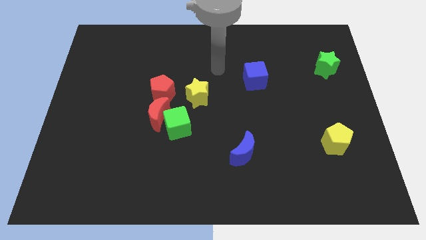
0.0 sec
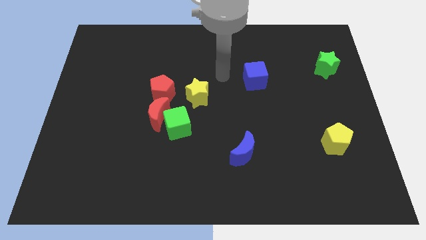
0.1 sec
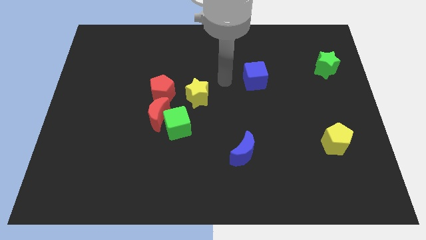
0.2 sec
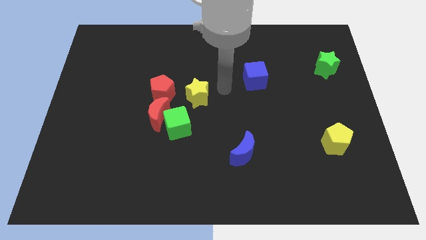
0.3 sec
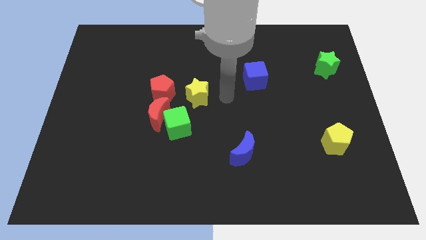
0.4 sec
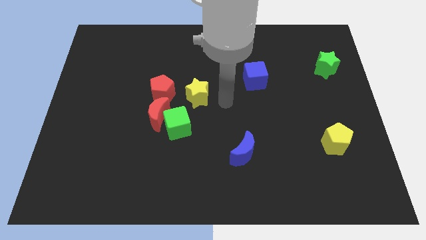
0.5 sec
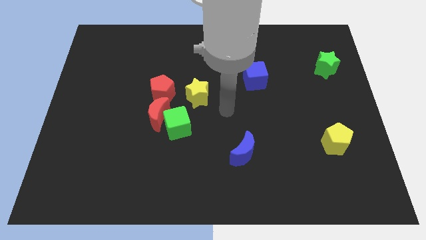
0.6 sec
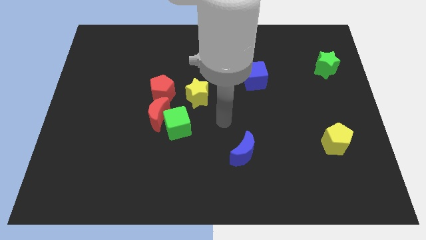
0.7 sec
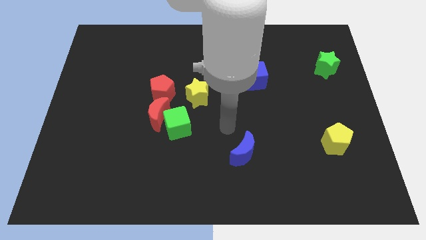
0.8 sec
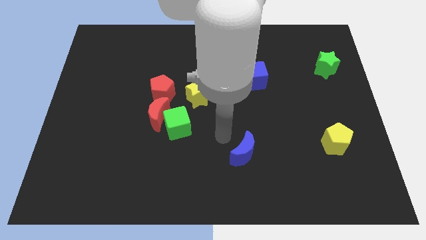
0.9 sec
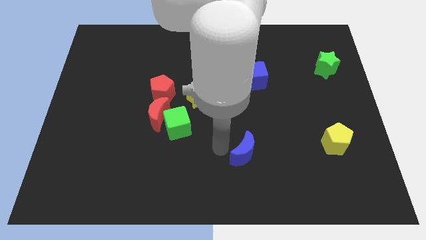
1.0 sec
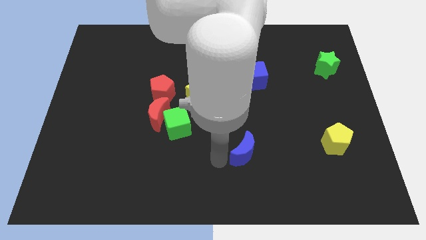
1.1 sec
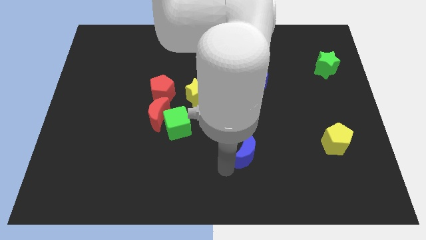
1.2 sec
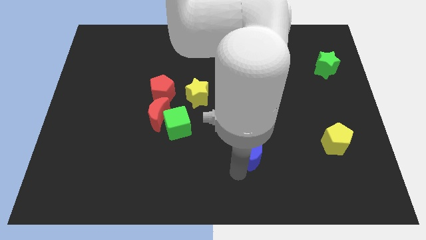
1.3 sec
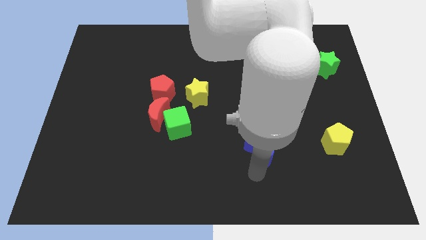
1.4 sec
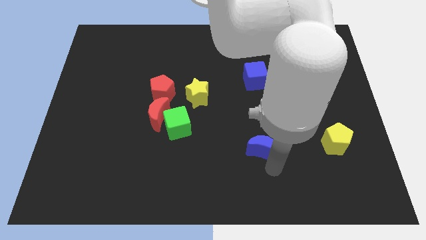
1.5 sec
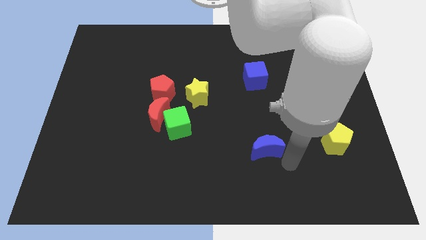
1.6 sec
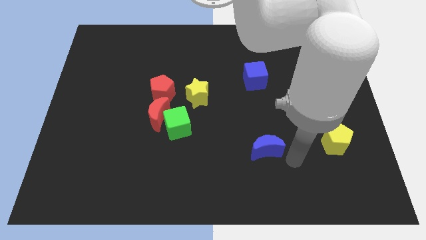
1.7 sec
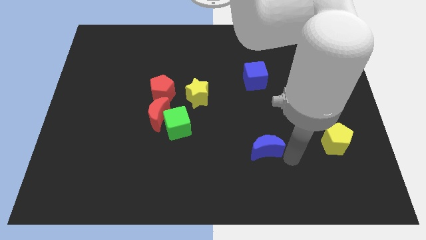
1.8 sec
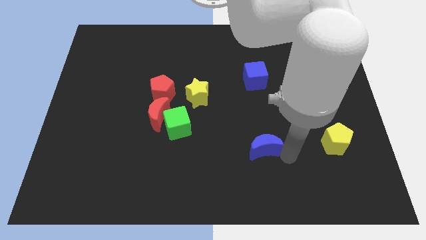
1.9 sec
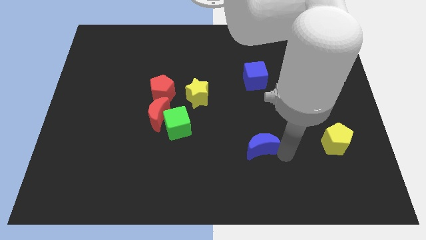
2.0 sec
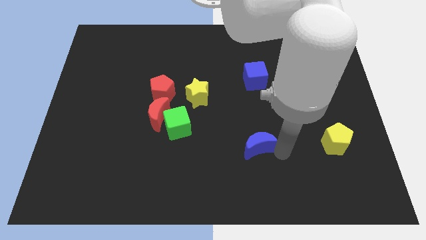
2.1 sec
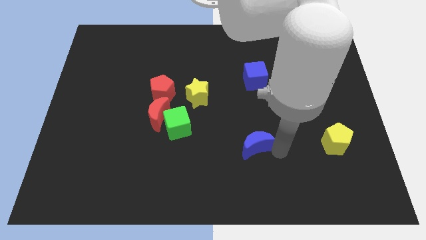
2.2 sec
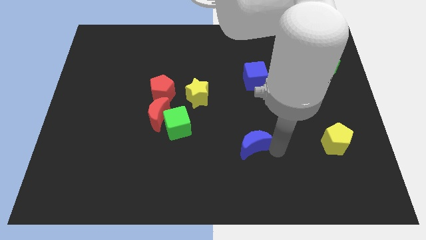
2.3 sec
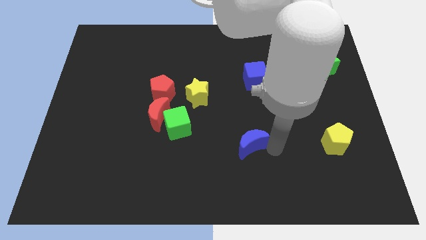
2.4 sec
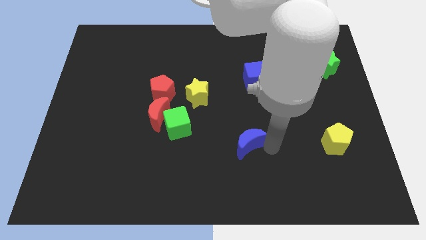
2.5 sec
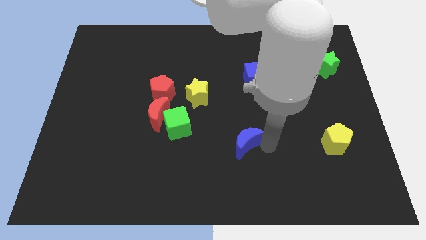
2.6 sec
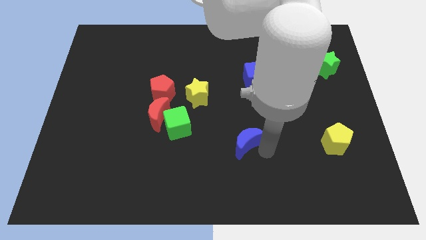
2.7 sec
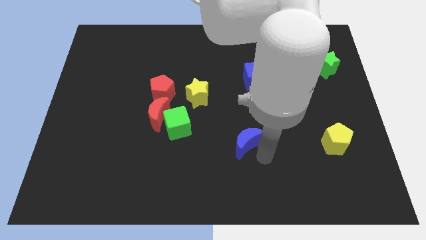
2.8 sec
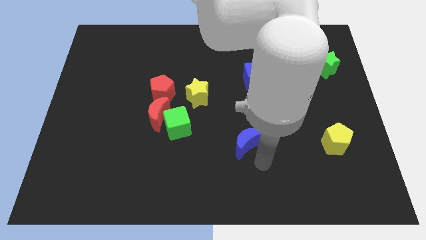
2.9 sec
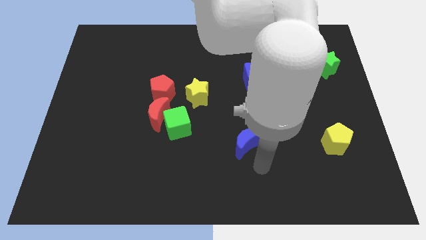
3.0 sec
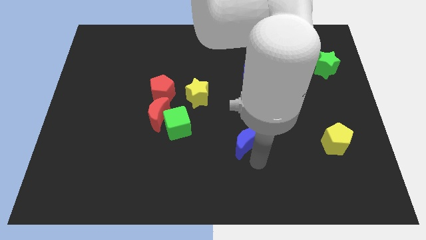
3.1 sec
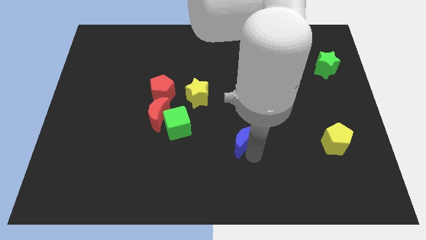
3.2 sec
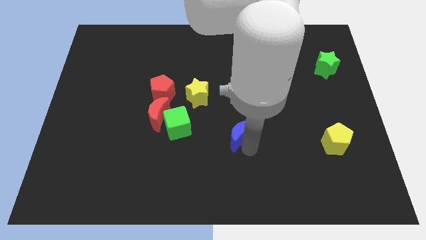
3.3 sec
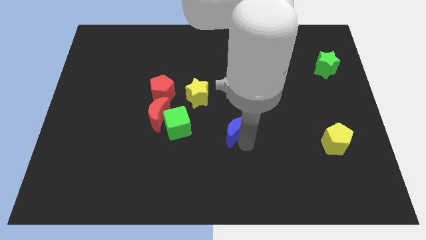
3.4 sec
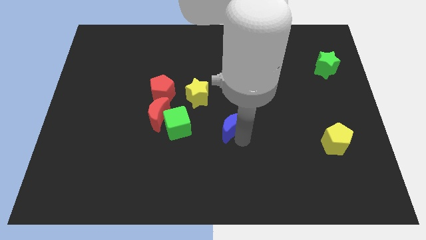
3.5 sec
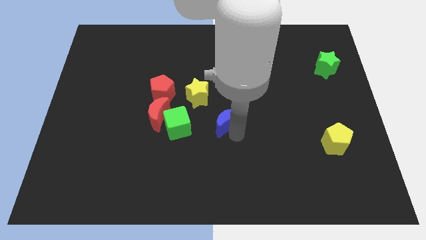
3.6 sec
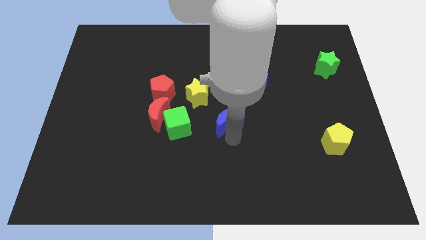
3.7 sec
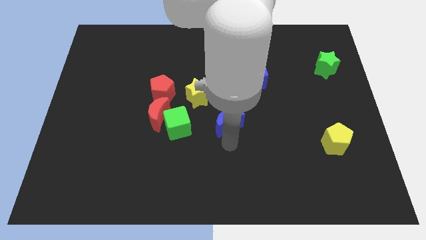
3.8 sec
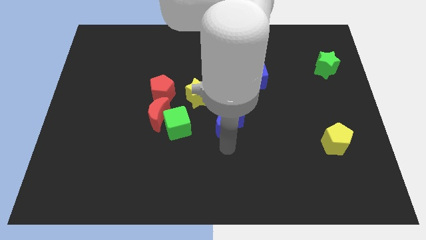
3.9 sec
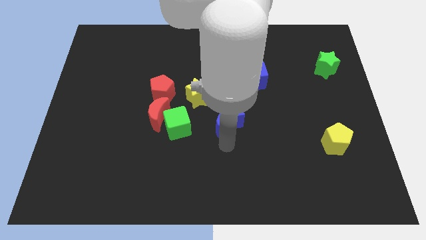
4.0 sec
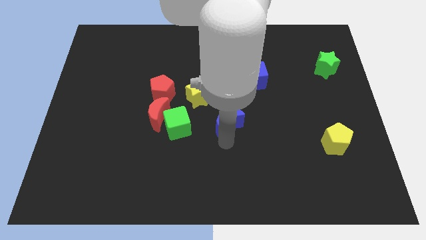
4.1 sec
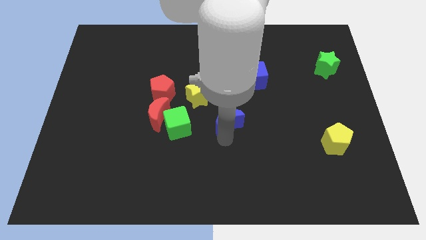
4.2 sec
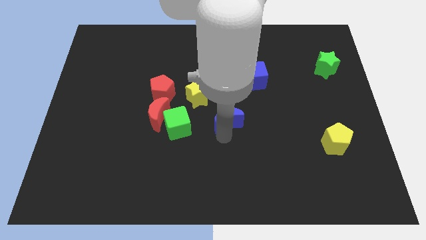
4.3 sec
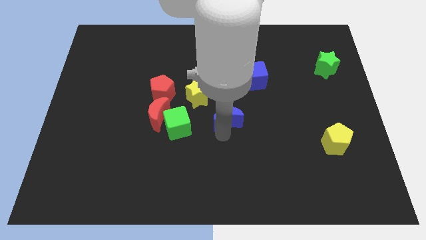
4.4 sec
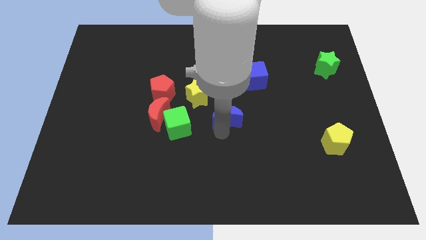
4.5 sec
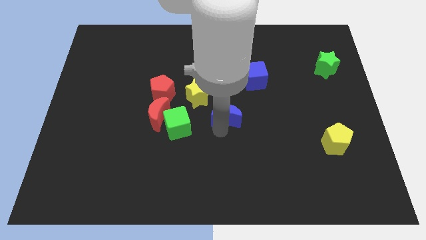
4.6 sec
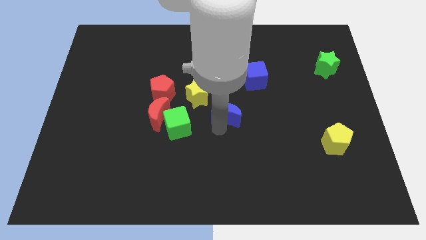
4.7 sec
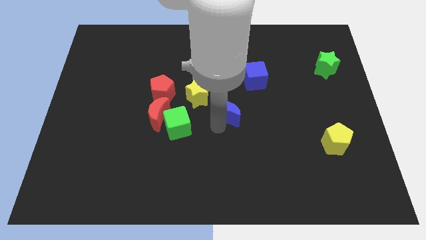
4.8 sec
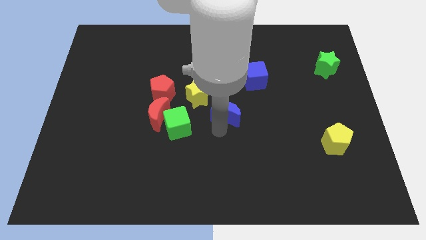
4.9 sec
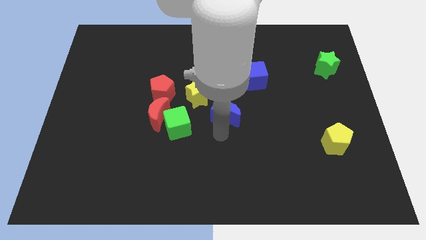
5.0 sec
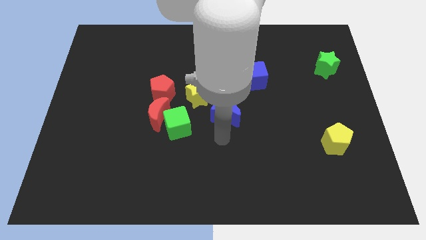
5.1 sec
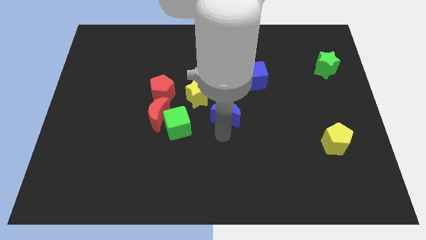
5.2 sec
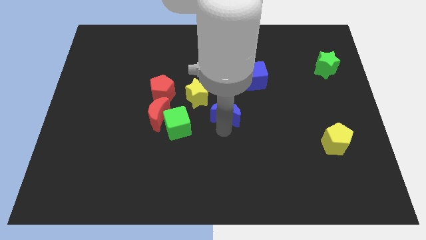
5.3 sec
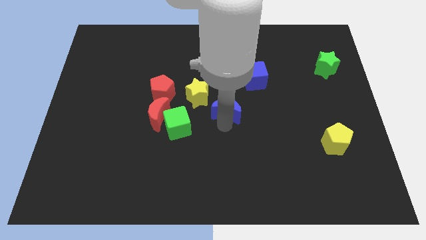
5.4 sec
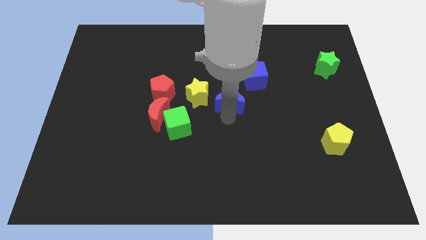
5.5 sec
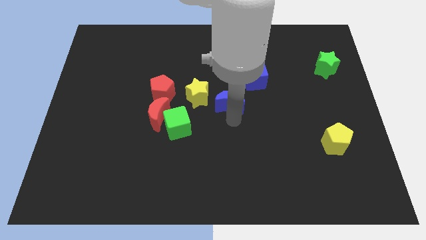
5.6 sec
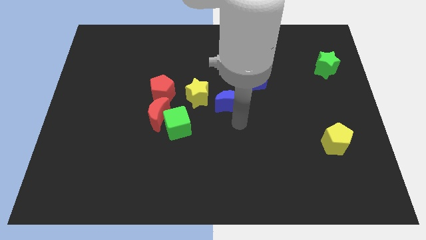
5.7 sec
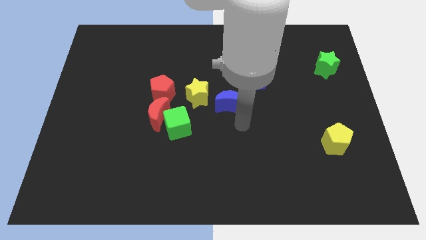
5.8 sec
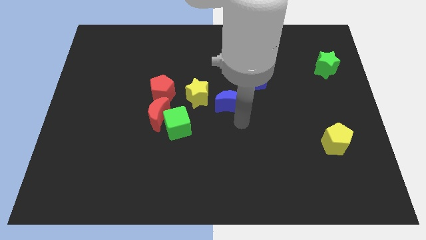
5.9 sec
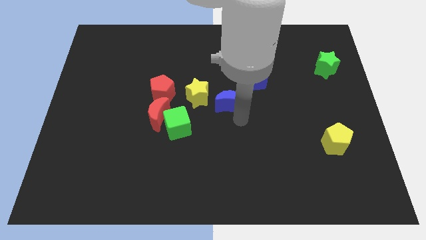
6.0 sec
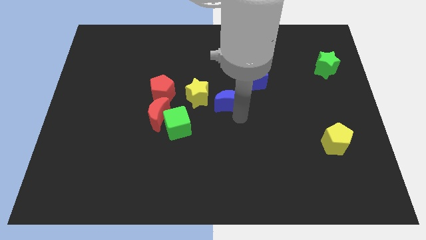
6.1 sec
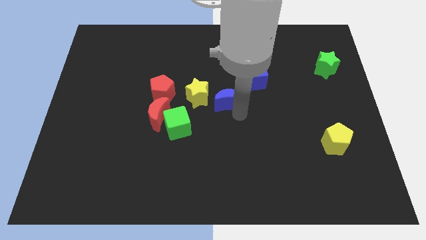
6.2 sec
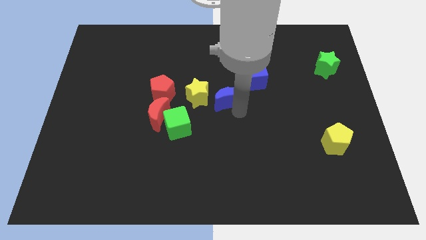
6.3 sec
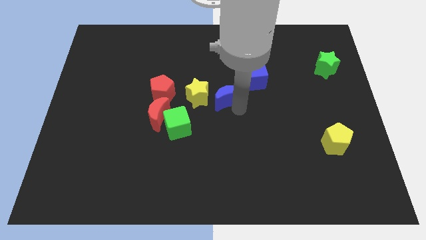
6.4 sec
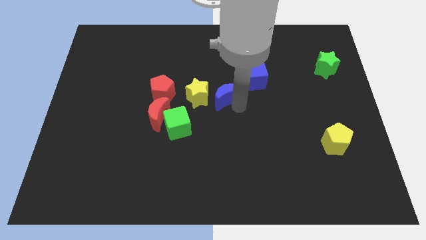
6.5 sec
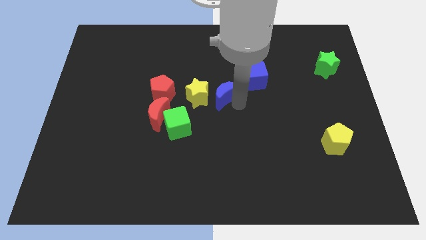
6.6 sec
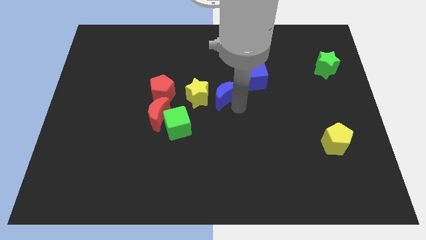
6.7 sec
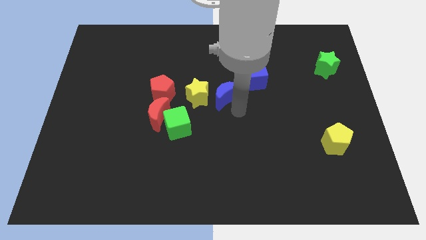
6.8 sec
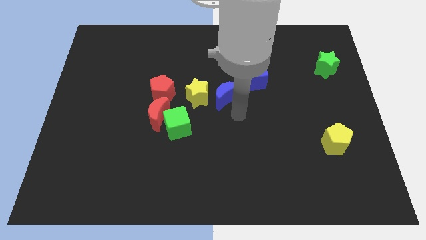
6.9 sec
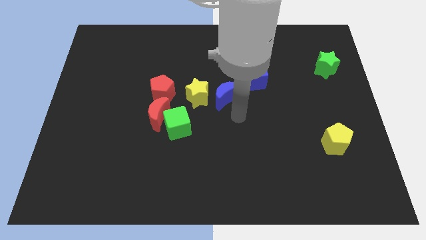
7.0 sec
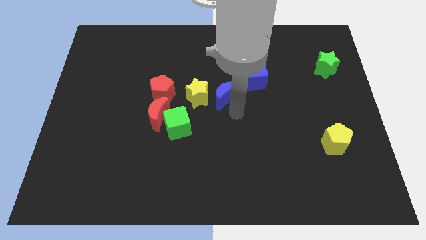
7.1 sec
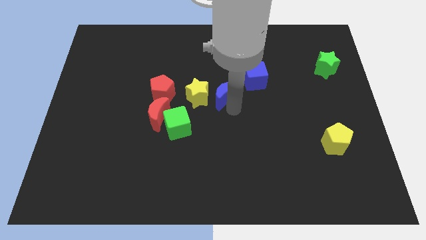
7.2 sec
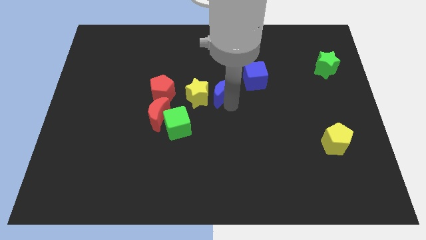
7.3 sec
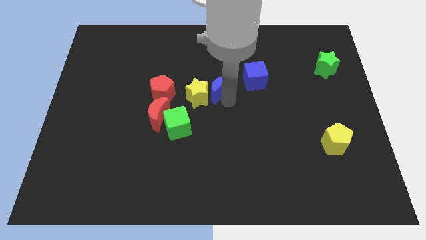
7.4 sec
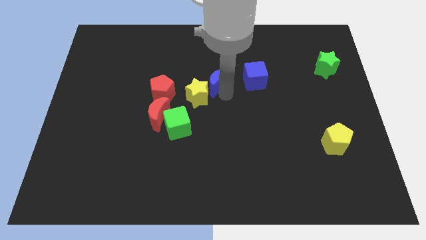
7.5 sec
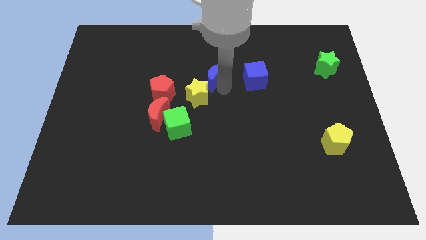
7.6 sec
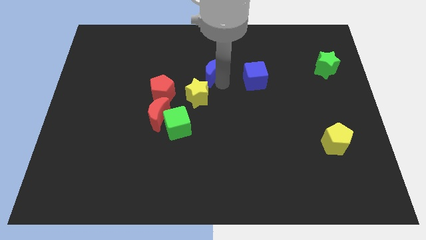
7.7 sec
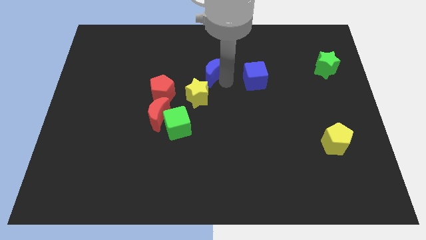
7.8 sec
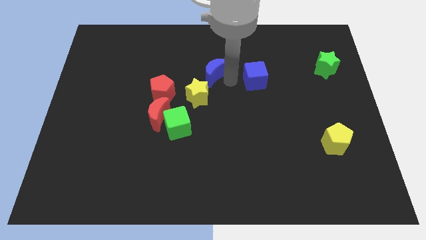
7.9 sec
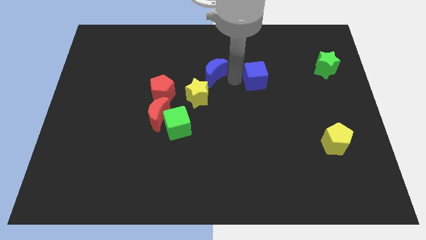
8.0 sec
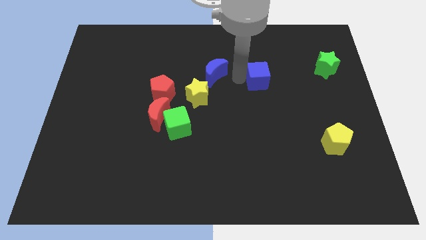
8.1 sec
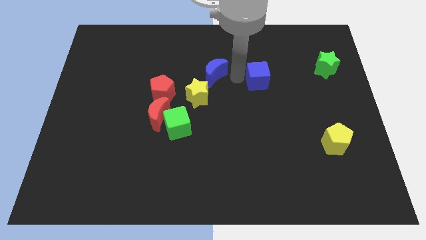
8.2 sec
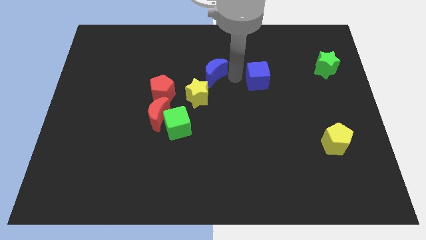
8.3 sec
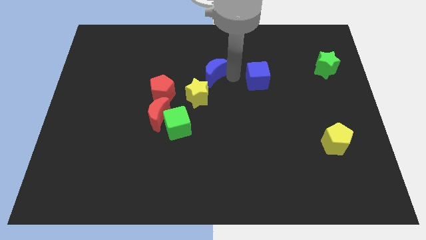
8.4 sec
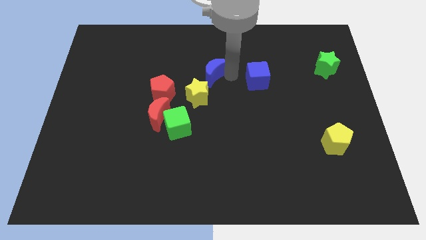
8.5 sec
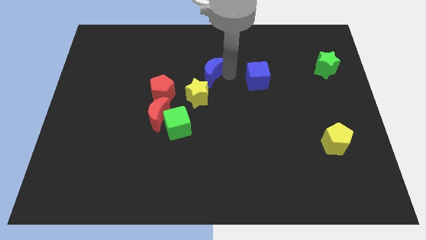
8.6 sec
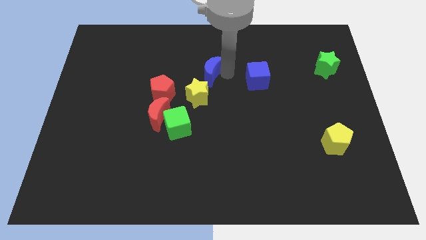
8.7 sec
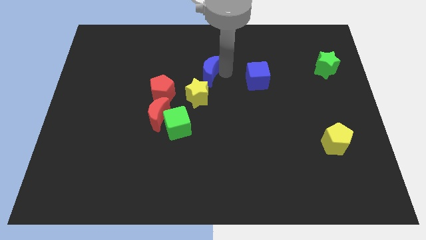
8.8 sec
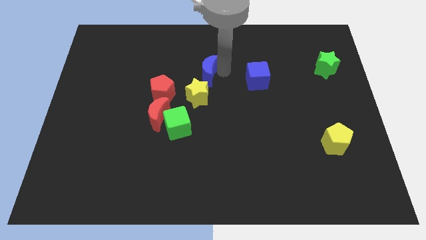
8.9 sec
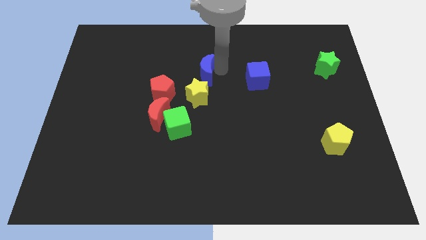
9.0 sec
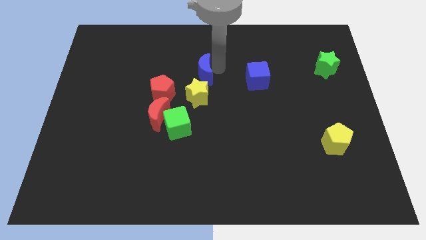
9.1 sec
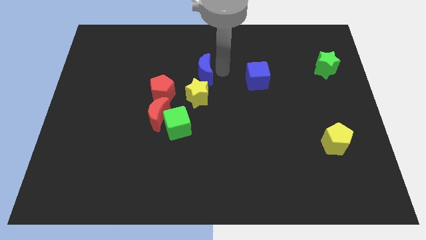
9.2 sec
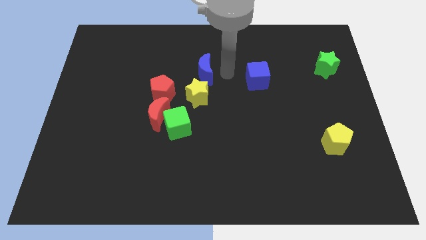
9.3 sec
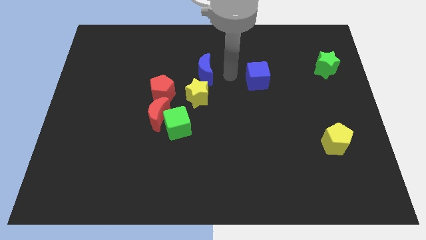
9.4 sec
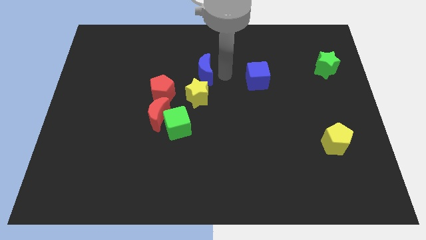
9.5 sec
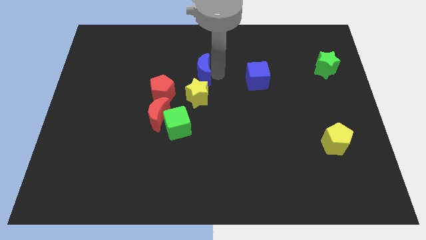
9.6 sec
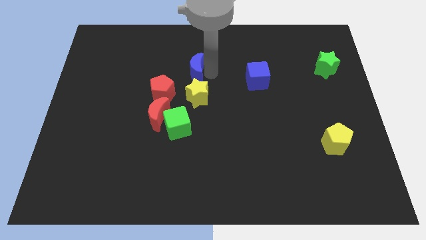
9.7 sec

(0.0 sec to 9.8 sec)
push the blue moon diagonally upwards and to the left
